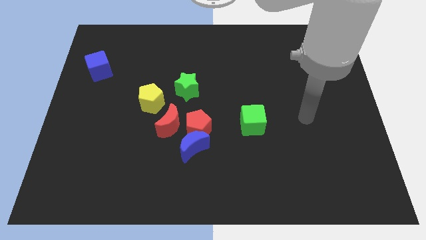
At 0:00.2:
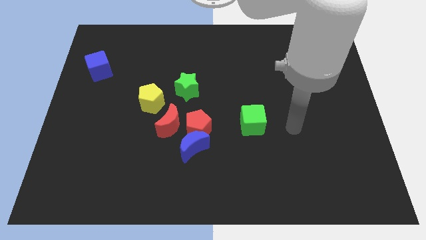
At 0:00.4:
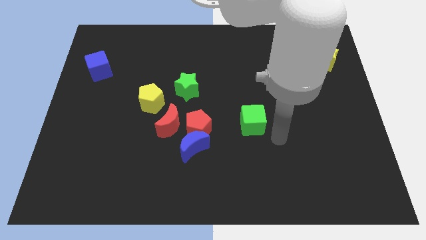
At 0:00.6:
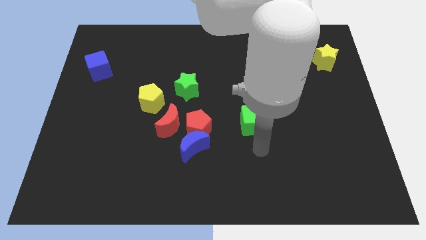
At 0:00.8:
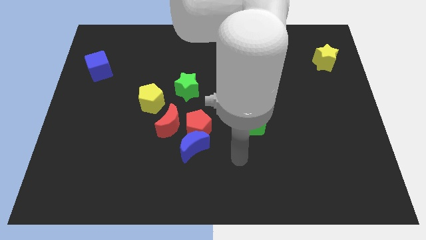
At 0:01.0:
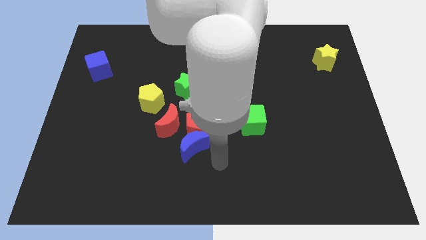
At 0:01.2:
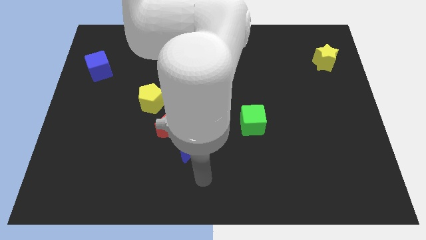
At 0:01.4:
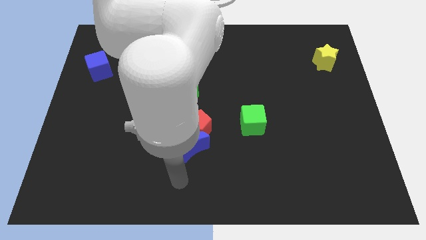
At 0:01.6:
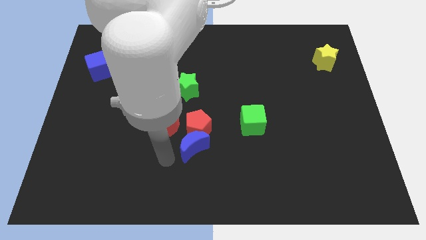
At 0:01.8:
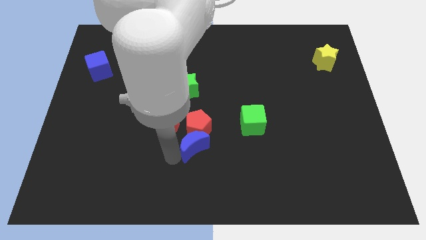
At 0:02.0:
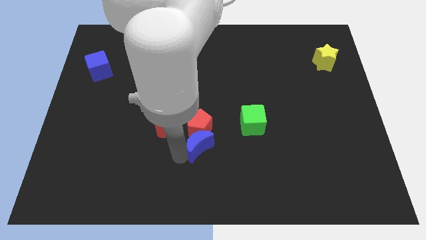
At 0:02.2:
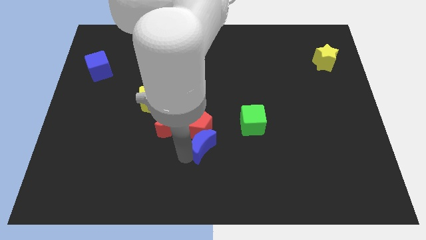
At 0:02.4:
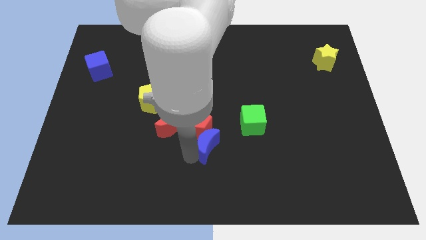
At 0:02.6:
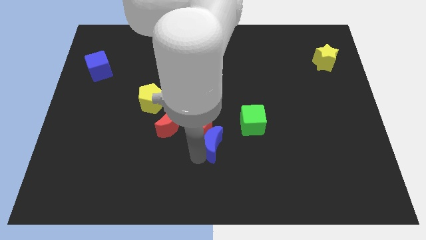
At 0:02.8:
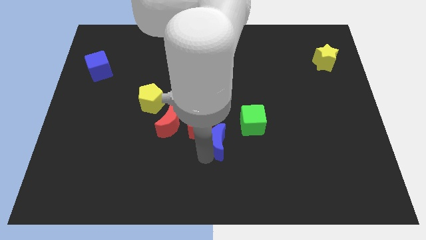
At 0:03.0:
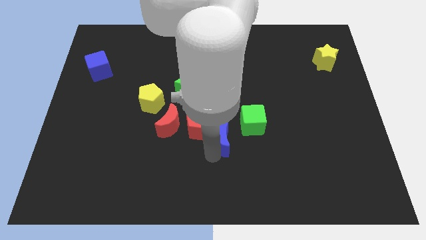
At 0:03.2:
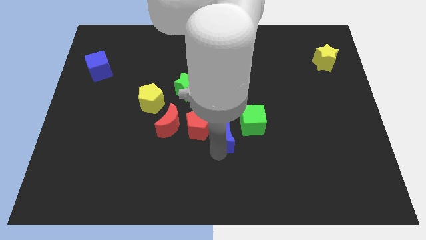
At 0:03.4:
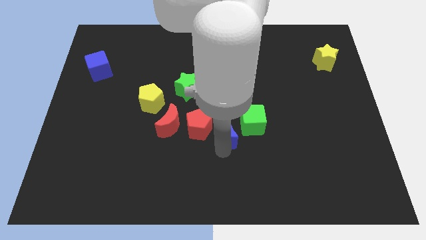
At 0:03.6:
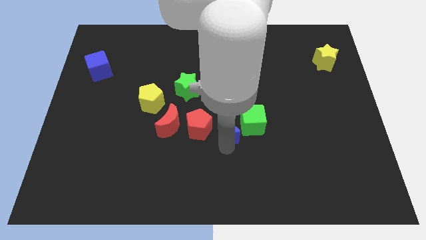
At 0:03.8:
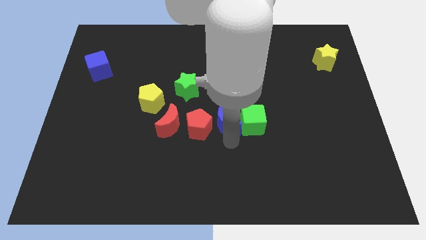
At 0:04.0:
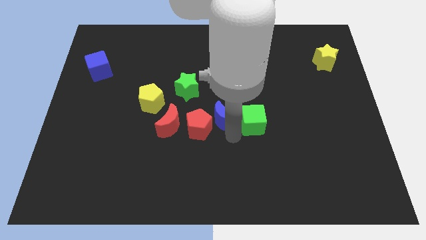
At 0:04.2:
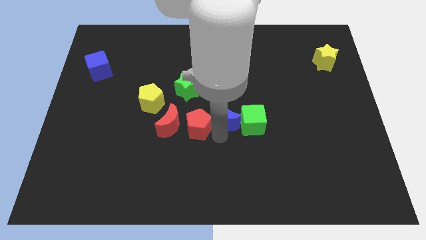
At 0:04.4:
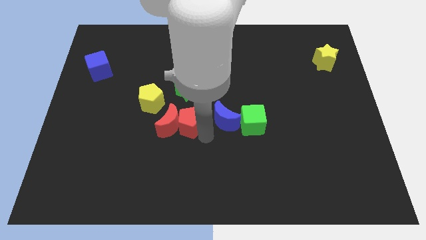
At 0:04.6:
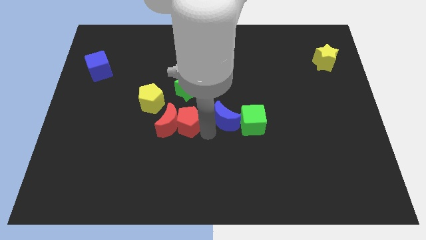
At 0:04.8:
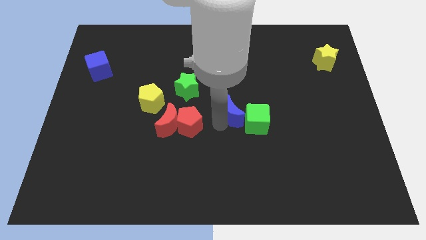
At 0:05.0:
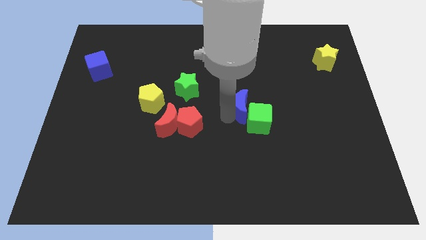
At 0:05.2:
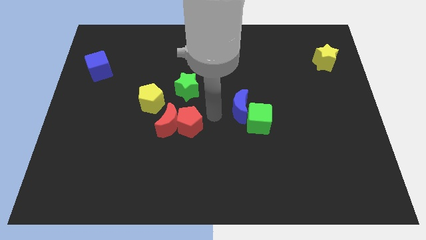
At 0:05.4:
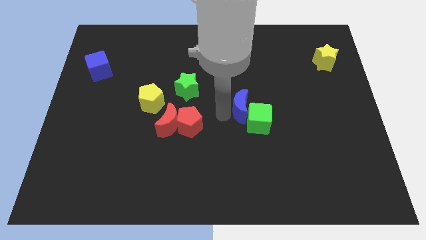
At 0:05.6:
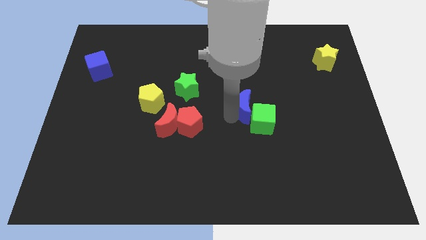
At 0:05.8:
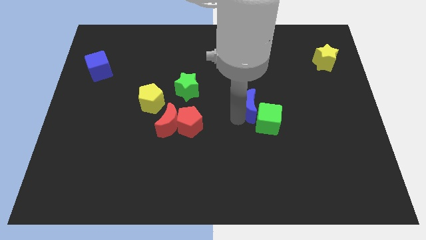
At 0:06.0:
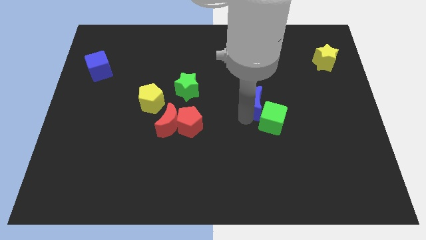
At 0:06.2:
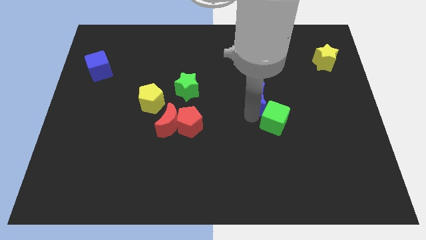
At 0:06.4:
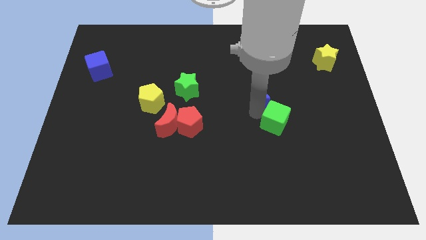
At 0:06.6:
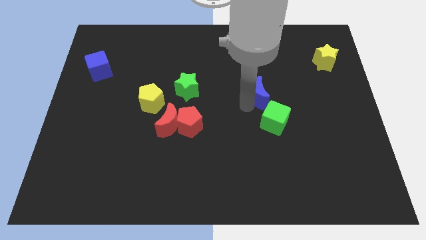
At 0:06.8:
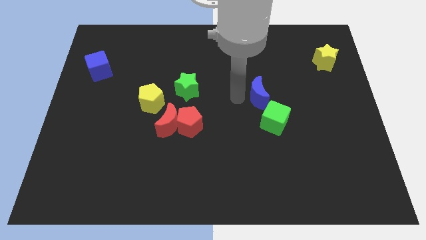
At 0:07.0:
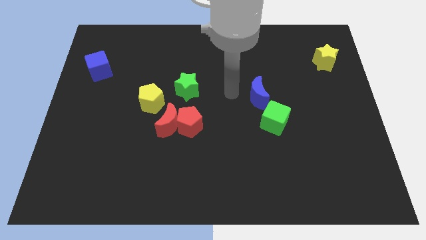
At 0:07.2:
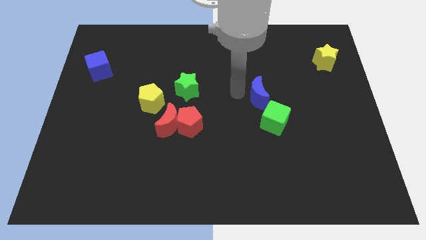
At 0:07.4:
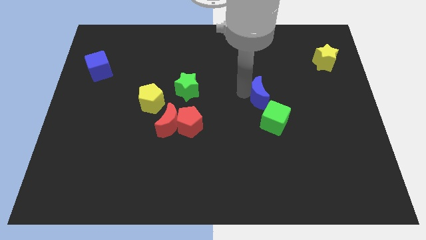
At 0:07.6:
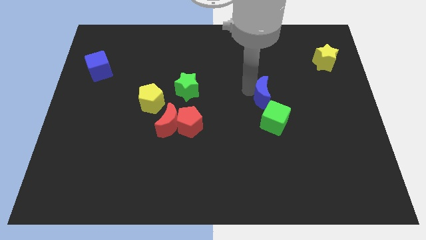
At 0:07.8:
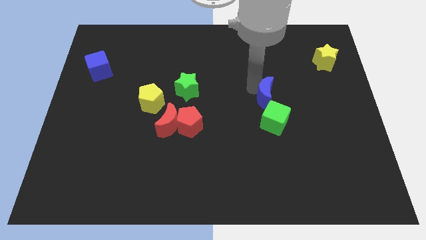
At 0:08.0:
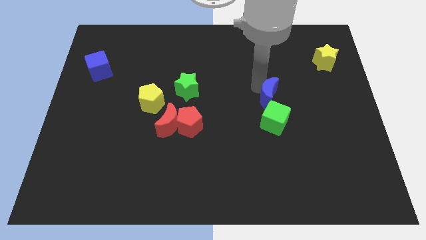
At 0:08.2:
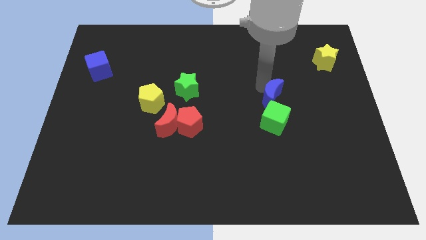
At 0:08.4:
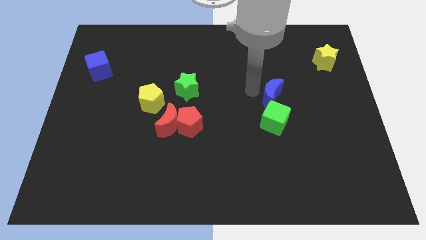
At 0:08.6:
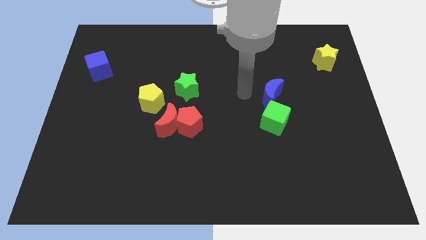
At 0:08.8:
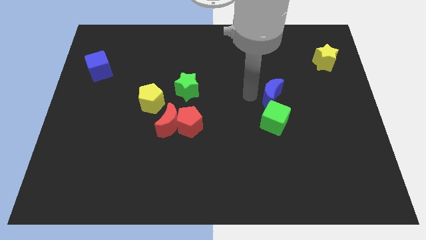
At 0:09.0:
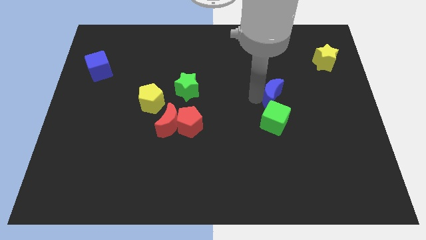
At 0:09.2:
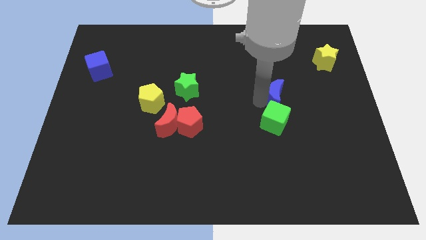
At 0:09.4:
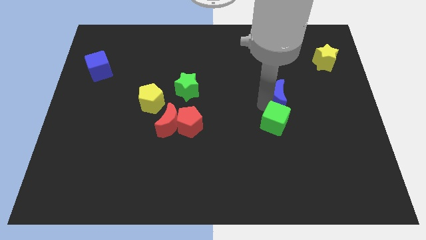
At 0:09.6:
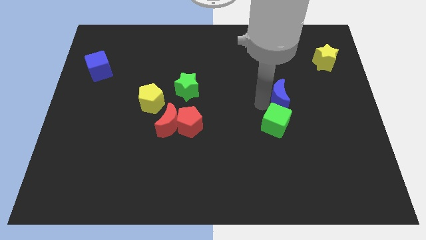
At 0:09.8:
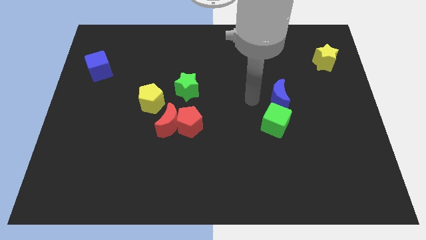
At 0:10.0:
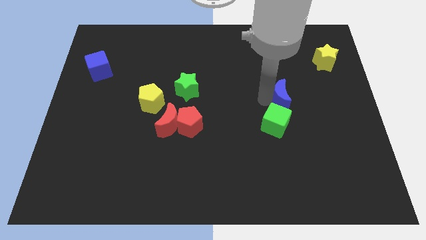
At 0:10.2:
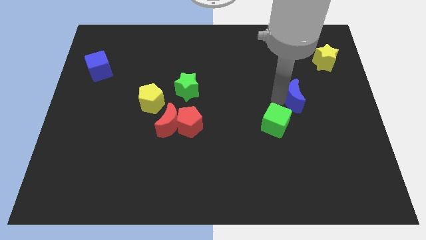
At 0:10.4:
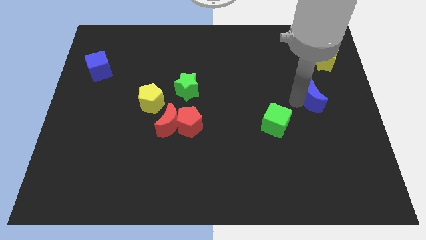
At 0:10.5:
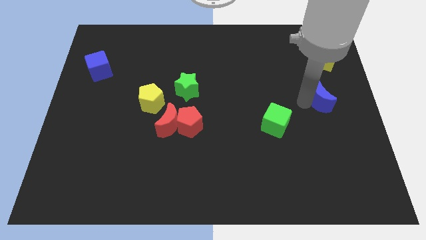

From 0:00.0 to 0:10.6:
push the blue moon to the bottom side of the yellow star

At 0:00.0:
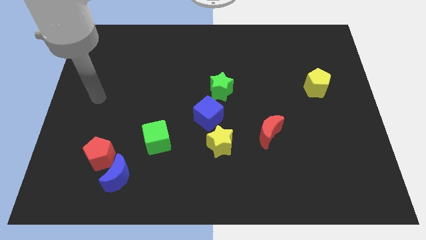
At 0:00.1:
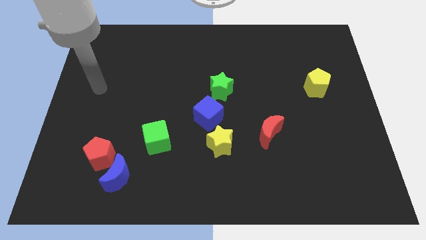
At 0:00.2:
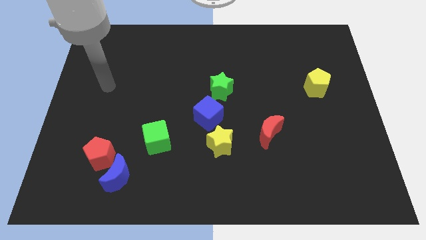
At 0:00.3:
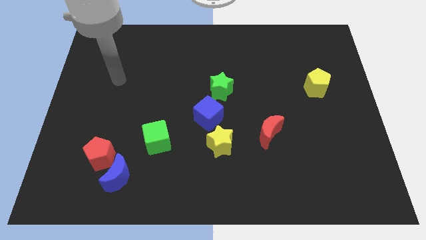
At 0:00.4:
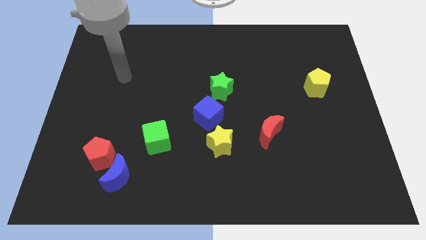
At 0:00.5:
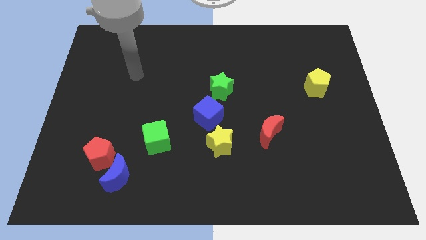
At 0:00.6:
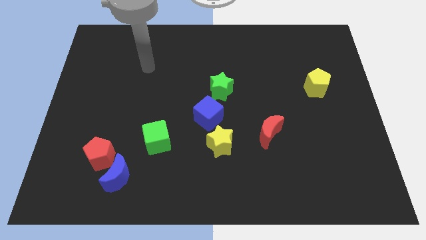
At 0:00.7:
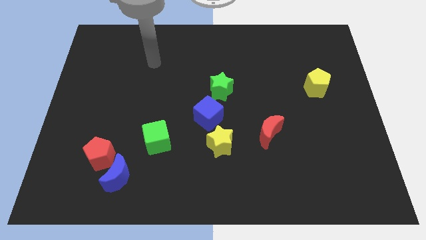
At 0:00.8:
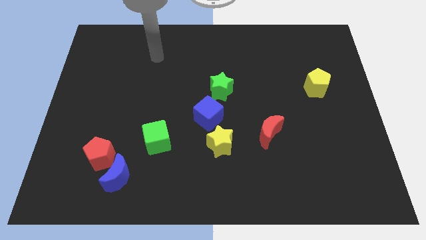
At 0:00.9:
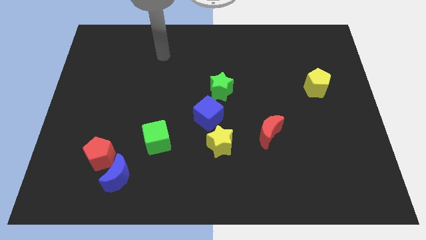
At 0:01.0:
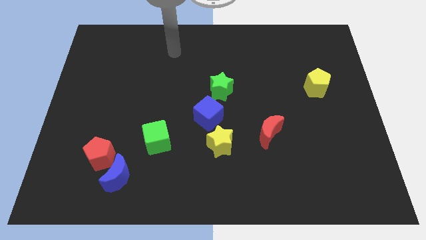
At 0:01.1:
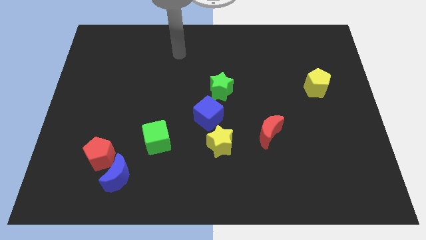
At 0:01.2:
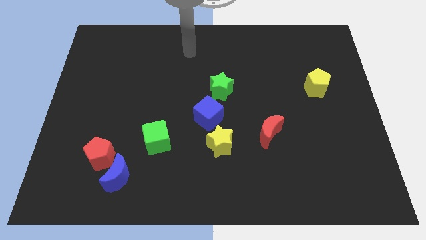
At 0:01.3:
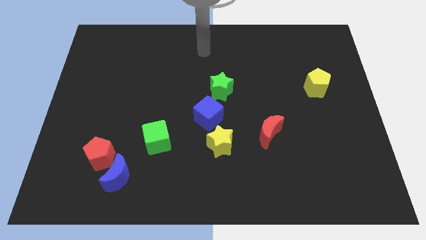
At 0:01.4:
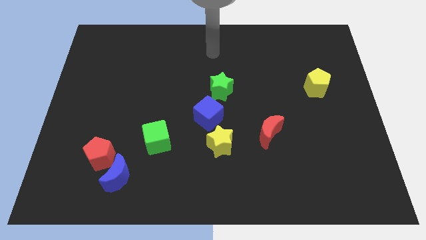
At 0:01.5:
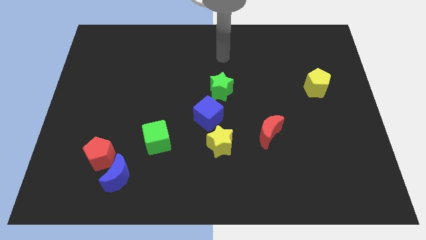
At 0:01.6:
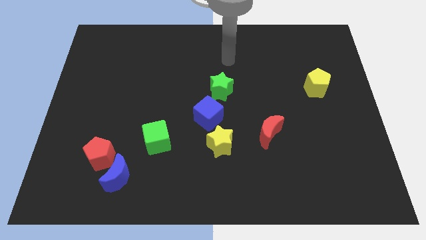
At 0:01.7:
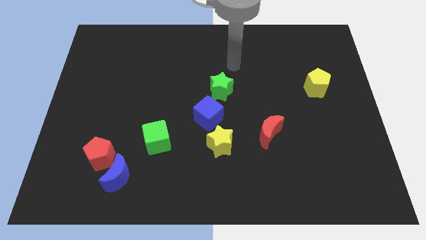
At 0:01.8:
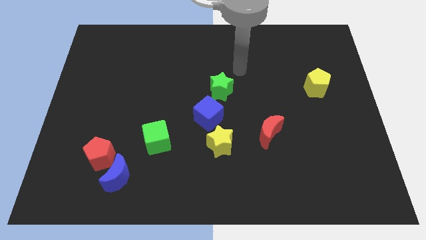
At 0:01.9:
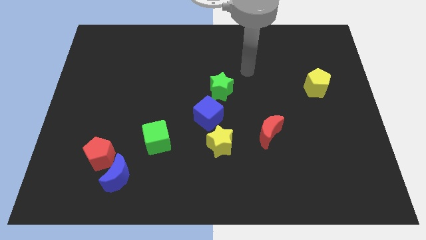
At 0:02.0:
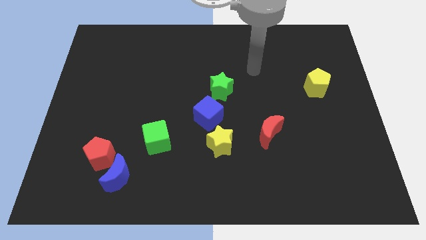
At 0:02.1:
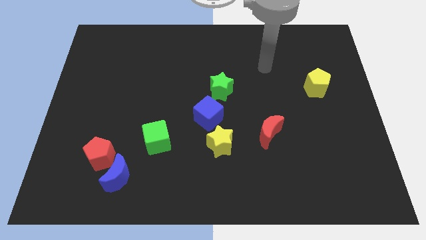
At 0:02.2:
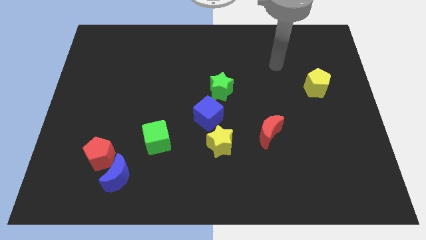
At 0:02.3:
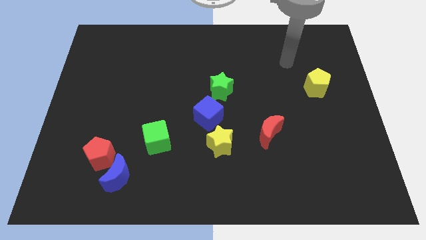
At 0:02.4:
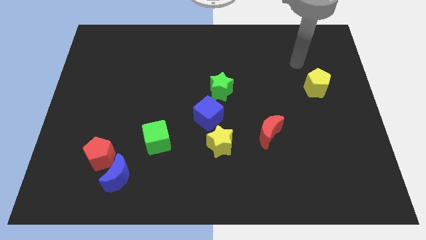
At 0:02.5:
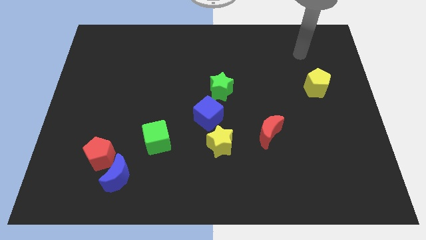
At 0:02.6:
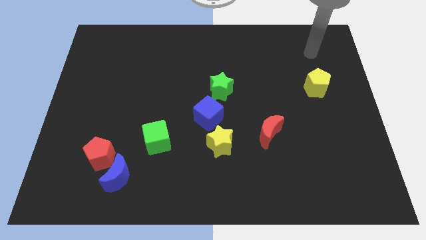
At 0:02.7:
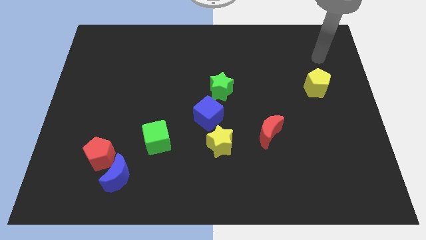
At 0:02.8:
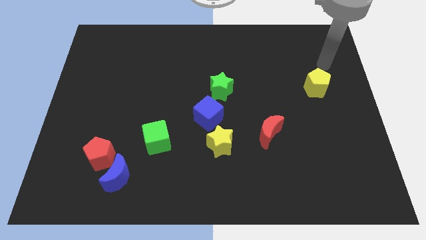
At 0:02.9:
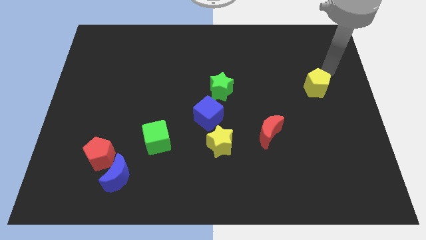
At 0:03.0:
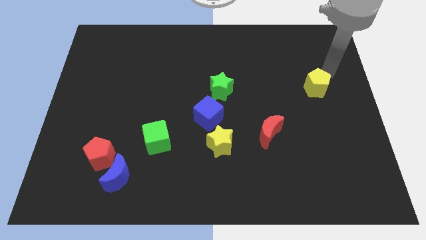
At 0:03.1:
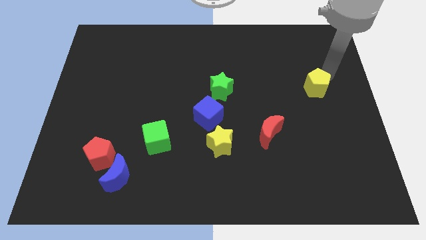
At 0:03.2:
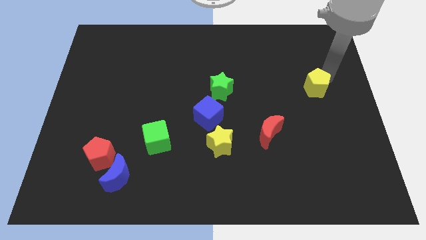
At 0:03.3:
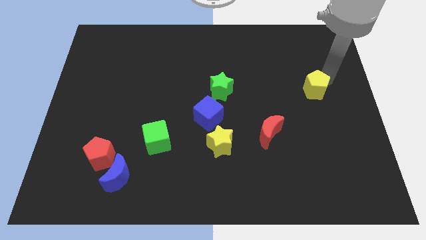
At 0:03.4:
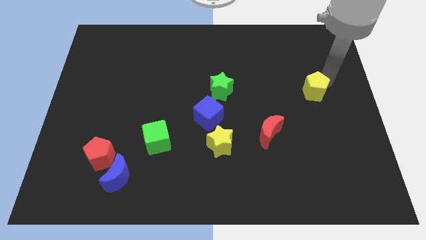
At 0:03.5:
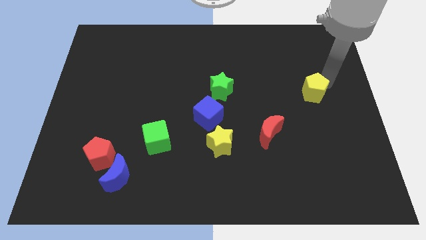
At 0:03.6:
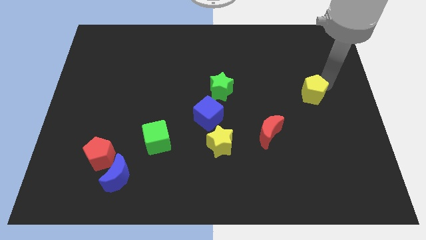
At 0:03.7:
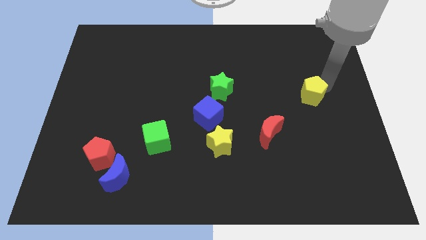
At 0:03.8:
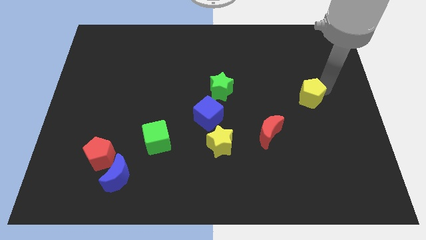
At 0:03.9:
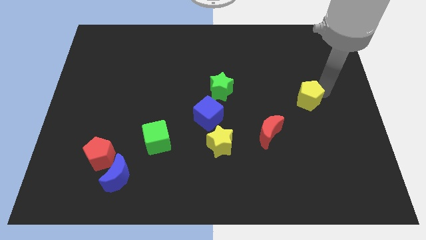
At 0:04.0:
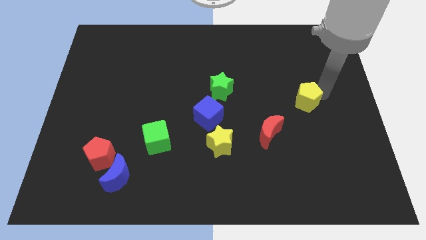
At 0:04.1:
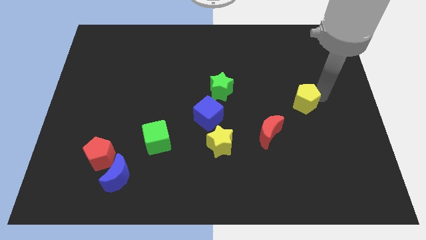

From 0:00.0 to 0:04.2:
move the yellow pentagon diagonally up and to the right of the red moon
